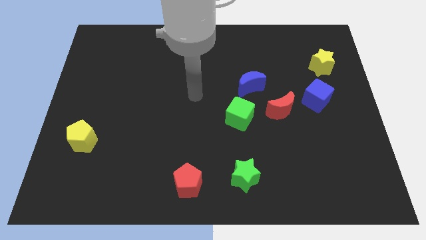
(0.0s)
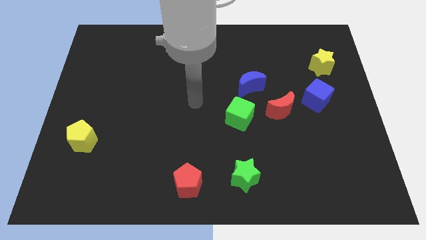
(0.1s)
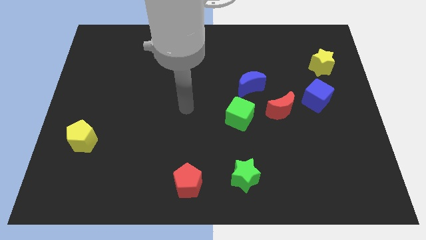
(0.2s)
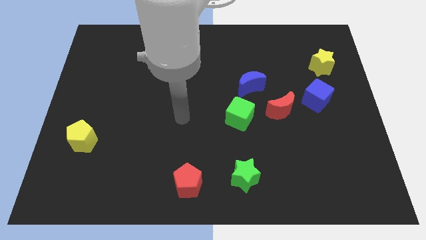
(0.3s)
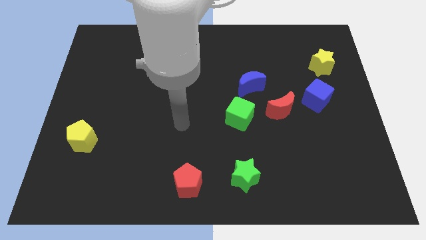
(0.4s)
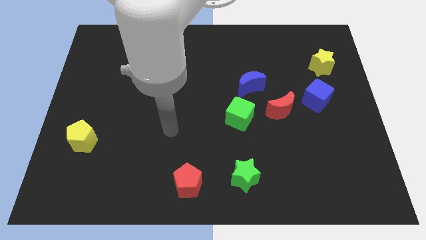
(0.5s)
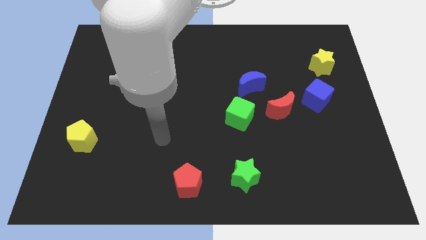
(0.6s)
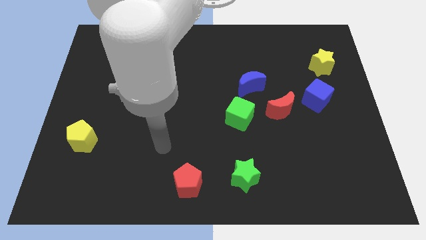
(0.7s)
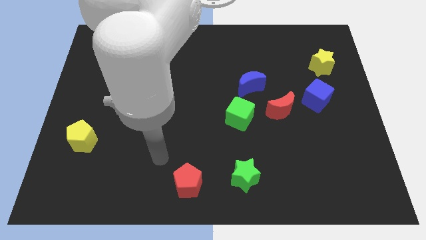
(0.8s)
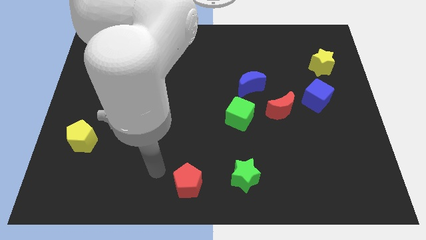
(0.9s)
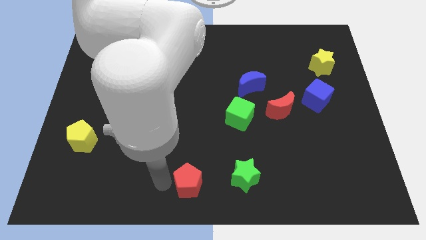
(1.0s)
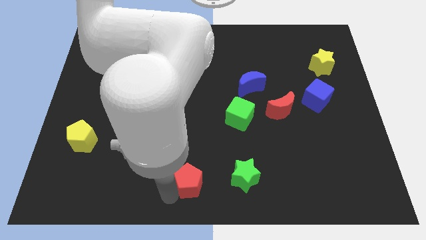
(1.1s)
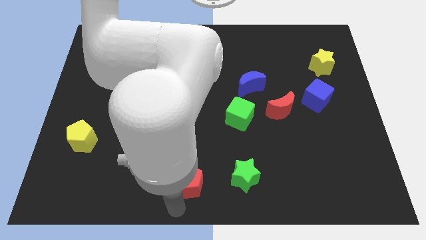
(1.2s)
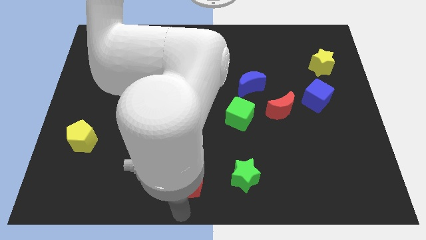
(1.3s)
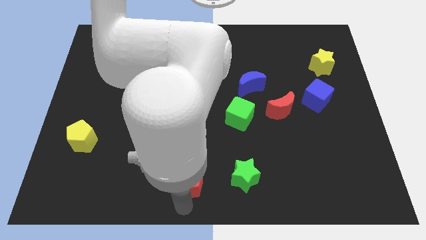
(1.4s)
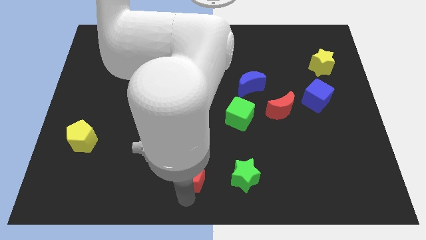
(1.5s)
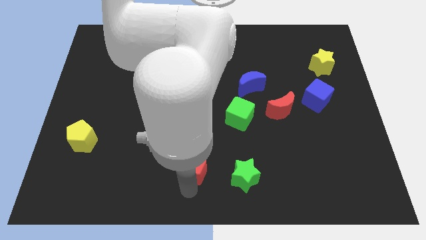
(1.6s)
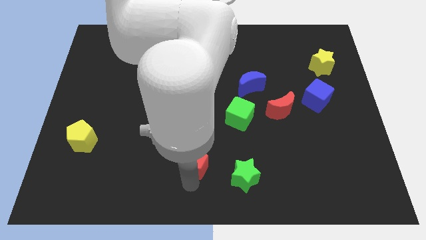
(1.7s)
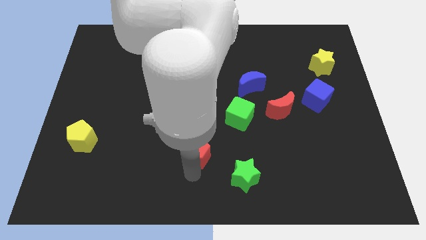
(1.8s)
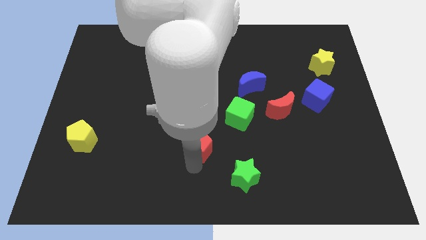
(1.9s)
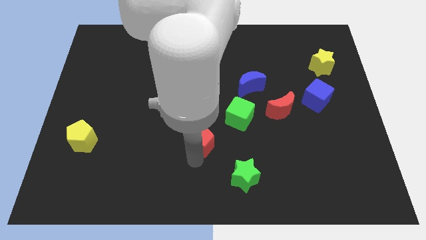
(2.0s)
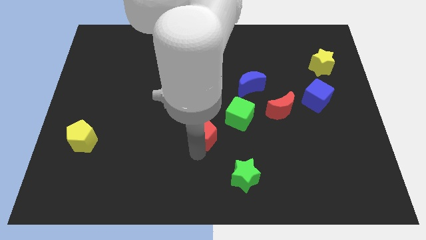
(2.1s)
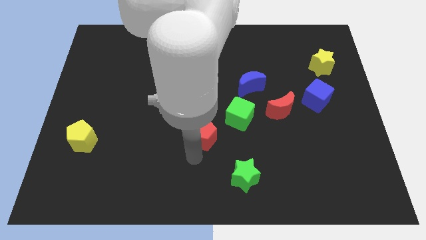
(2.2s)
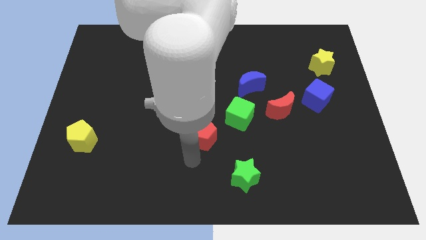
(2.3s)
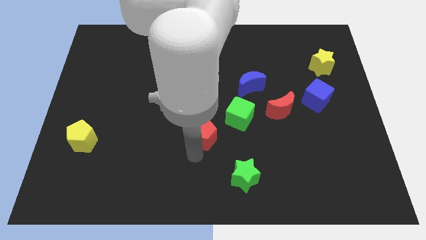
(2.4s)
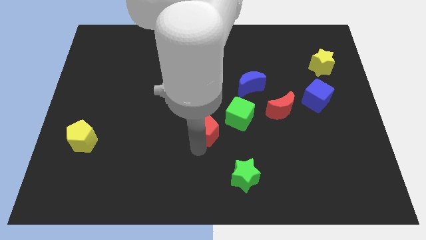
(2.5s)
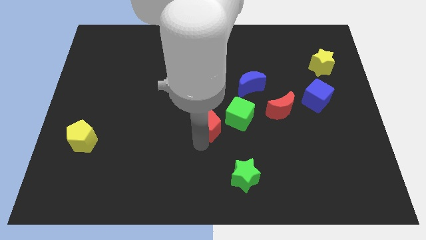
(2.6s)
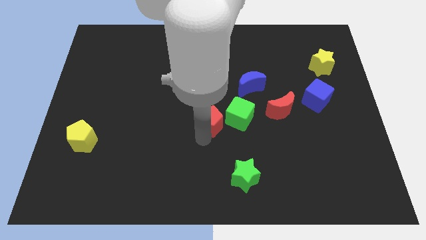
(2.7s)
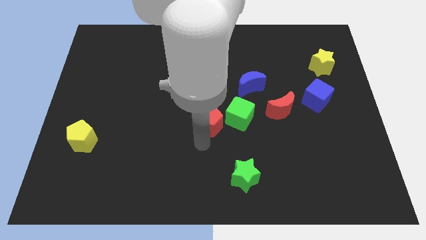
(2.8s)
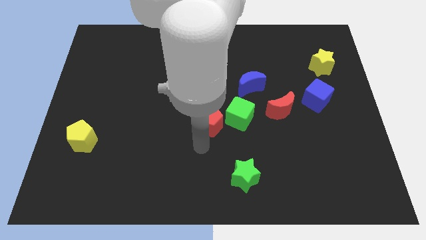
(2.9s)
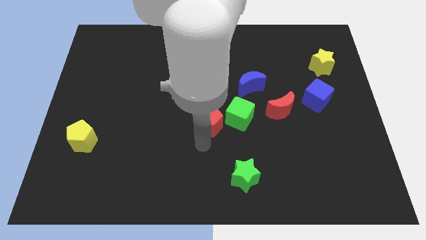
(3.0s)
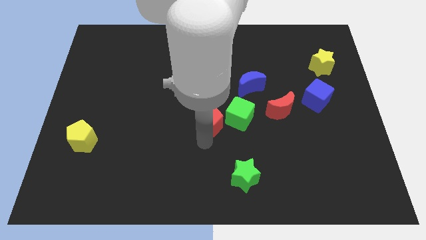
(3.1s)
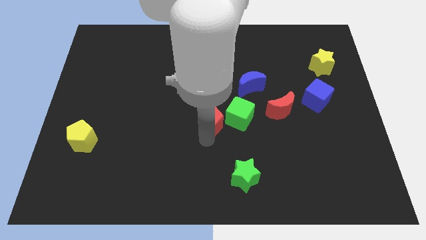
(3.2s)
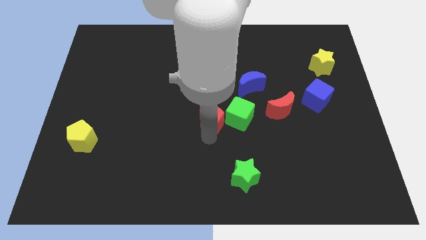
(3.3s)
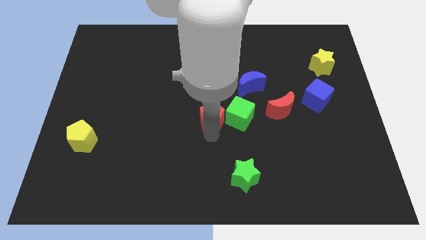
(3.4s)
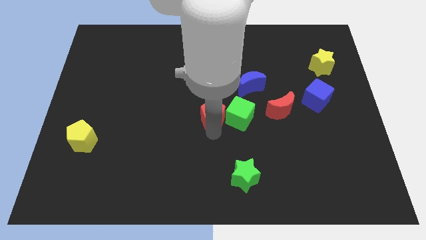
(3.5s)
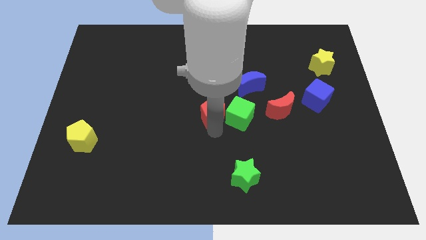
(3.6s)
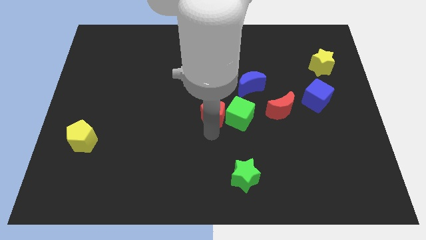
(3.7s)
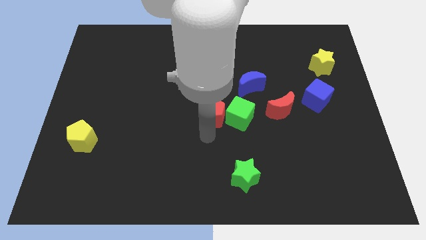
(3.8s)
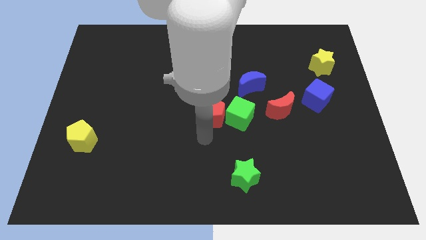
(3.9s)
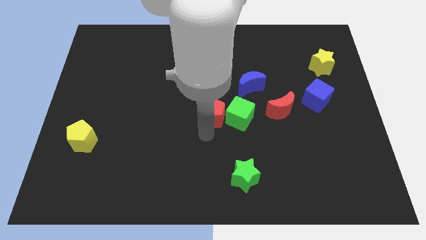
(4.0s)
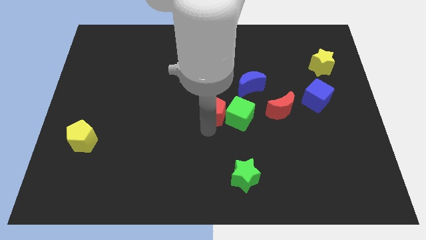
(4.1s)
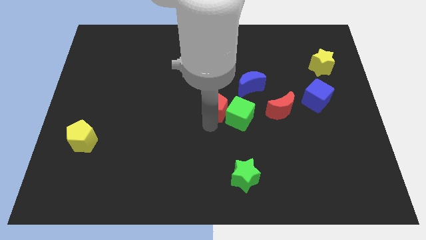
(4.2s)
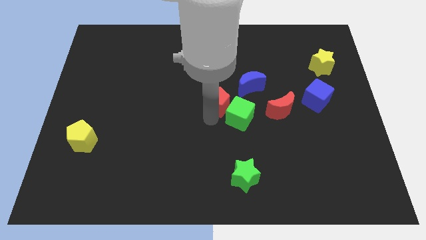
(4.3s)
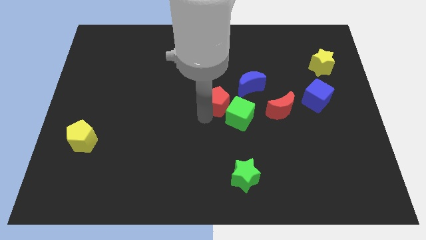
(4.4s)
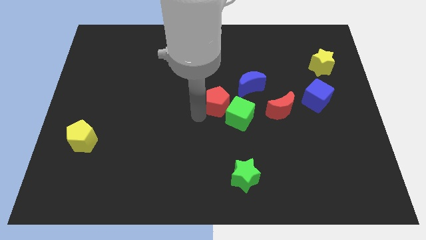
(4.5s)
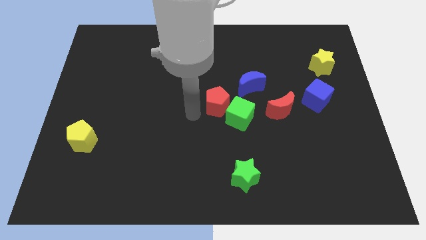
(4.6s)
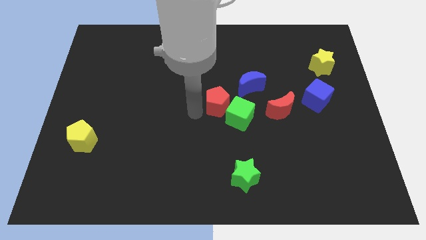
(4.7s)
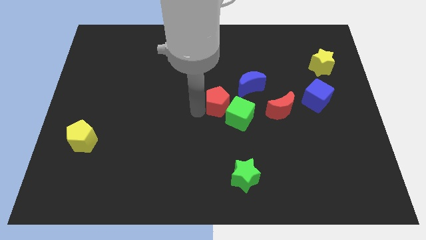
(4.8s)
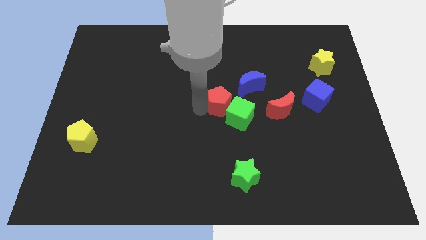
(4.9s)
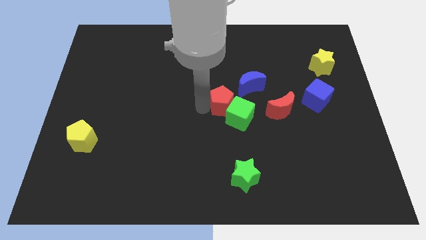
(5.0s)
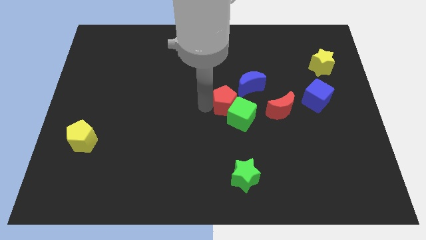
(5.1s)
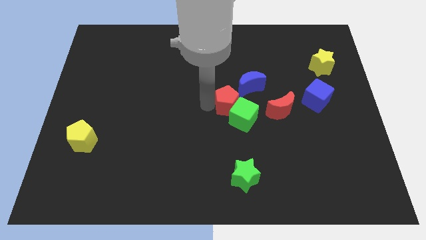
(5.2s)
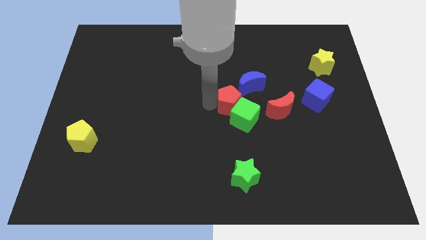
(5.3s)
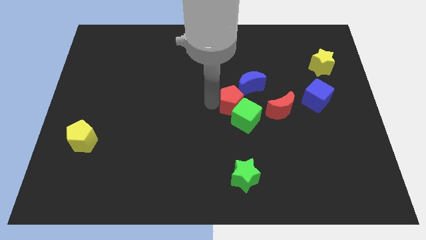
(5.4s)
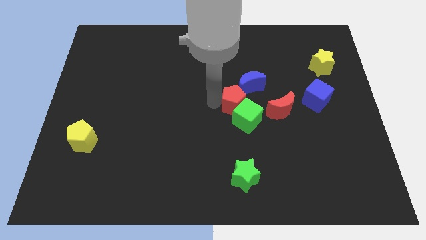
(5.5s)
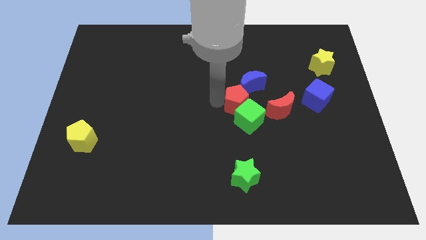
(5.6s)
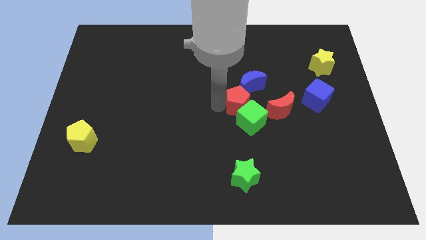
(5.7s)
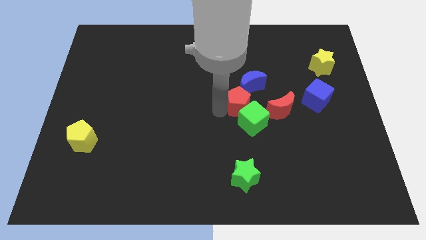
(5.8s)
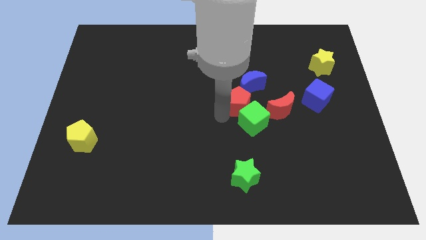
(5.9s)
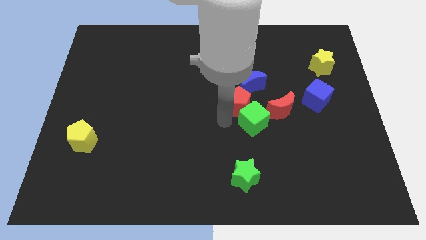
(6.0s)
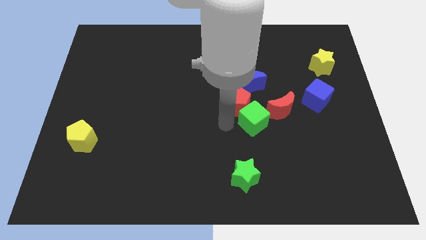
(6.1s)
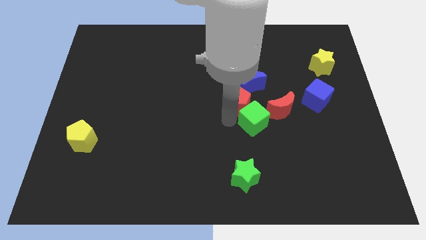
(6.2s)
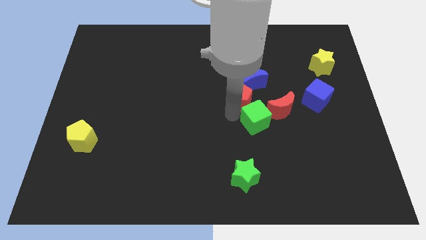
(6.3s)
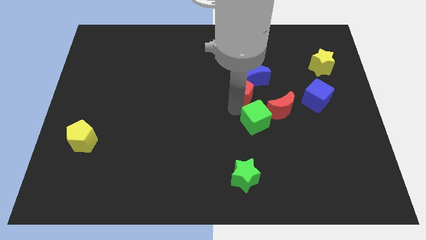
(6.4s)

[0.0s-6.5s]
put the red pentagon to the blue moon

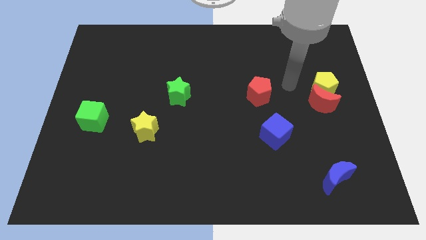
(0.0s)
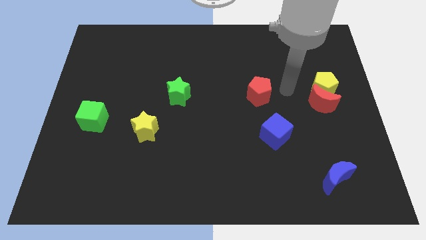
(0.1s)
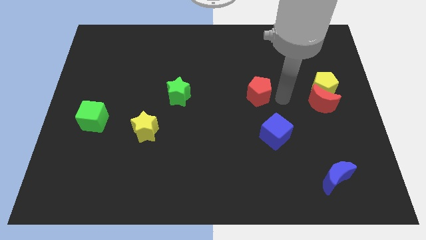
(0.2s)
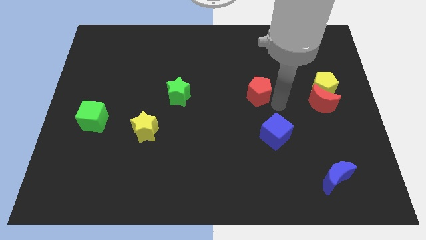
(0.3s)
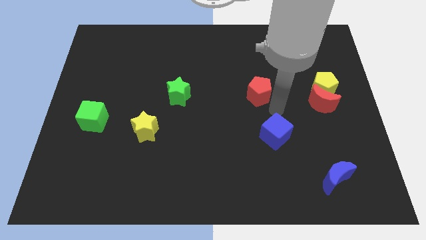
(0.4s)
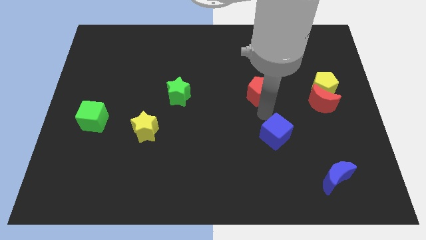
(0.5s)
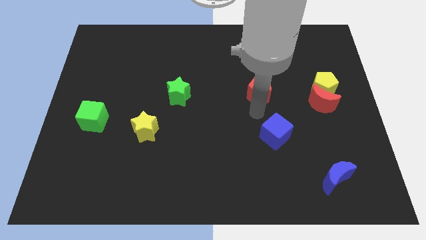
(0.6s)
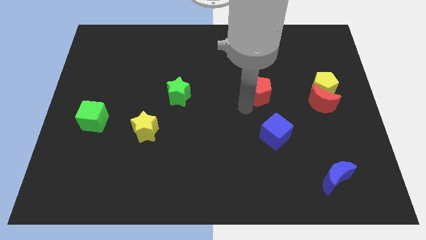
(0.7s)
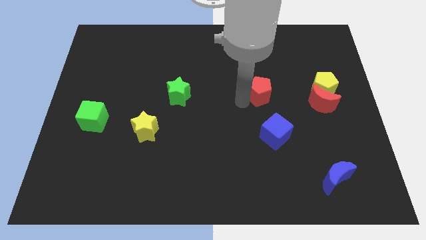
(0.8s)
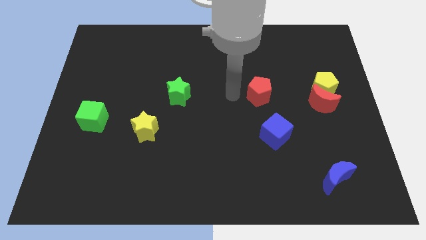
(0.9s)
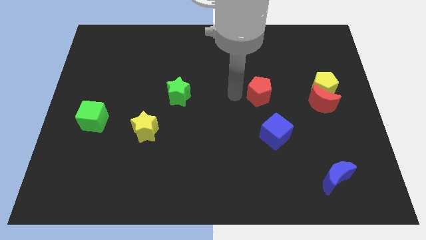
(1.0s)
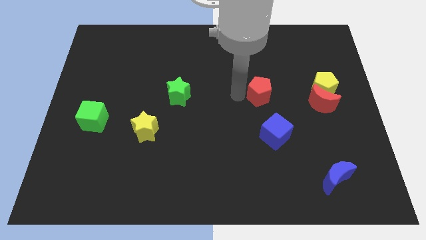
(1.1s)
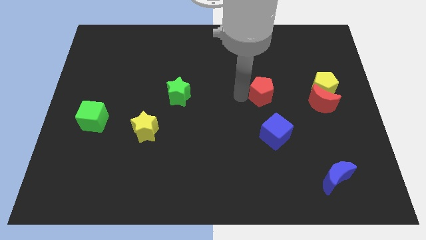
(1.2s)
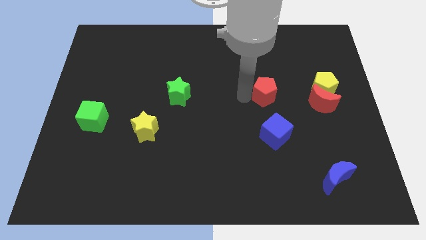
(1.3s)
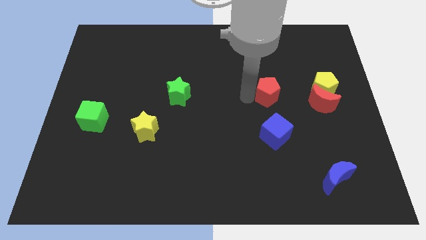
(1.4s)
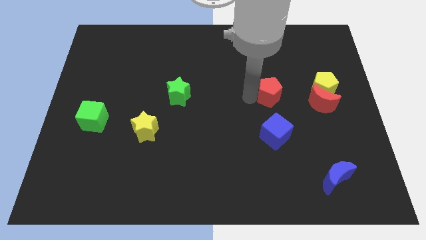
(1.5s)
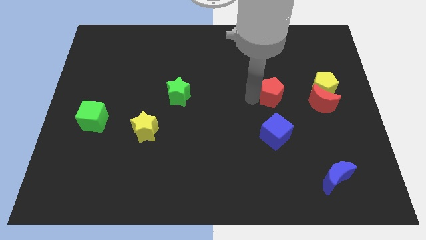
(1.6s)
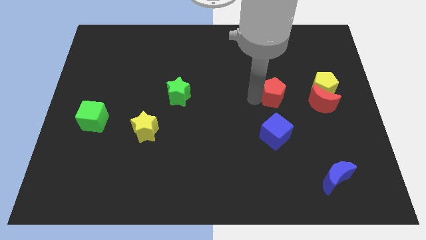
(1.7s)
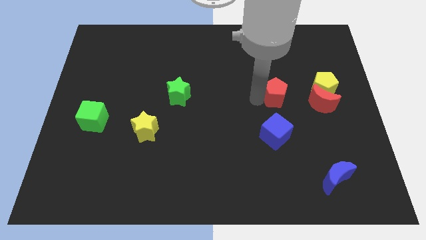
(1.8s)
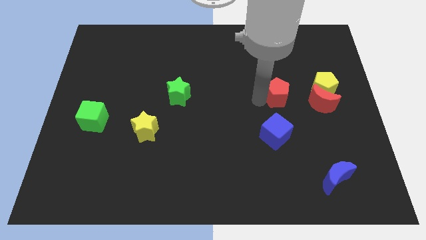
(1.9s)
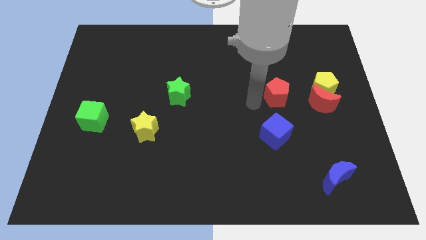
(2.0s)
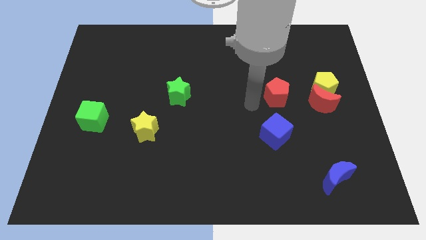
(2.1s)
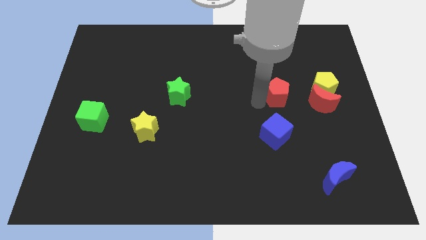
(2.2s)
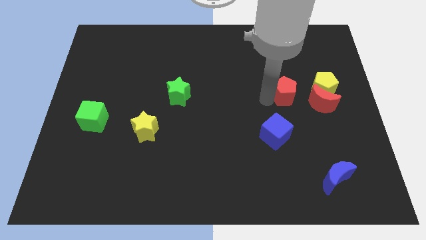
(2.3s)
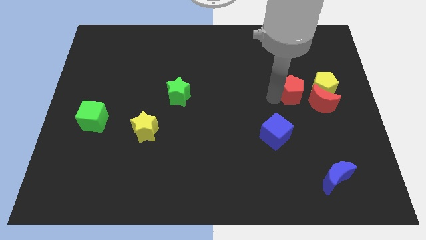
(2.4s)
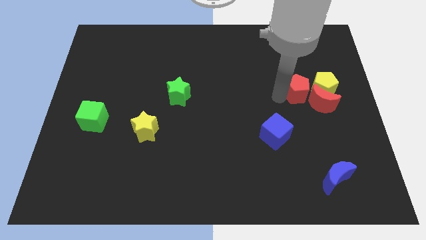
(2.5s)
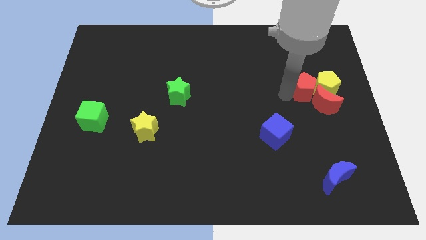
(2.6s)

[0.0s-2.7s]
slide the red pentagon next to the yellow pentagon
